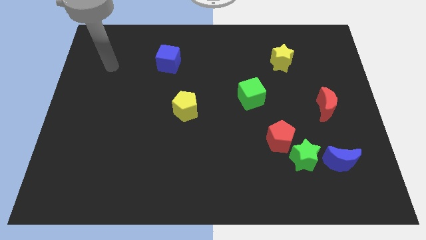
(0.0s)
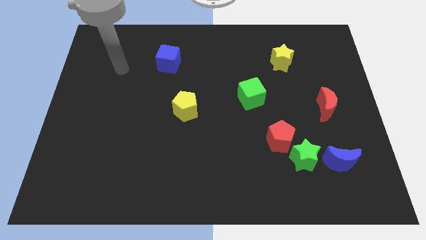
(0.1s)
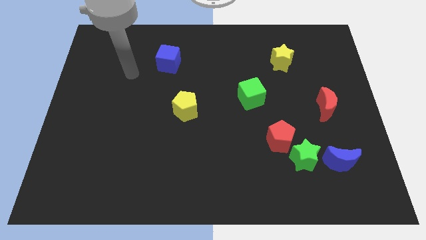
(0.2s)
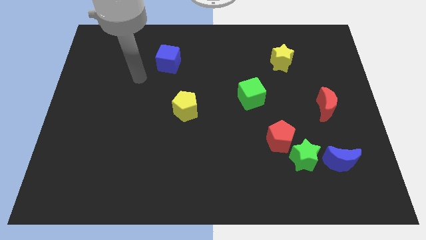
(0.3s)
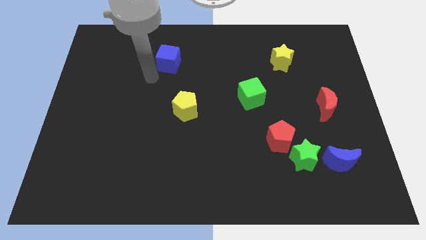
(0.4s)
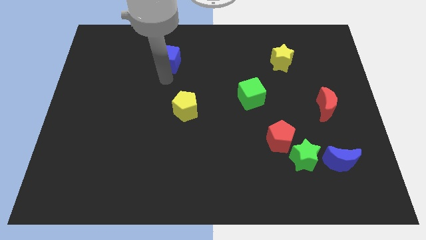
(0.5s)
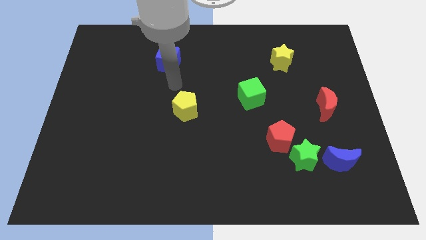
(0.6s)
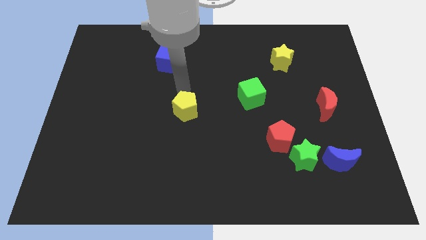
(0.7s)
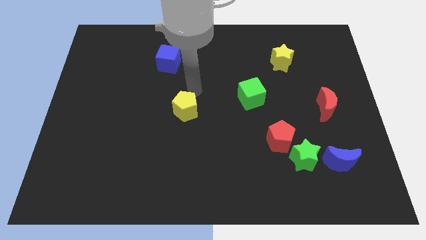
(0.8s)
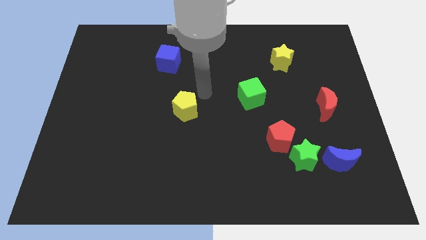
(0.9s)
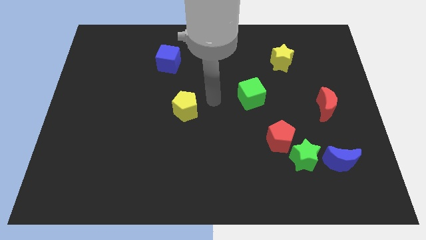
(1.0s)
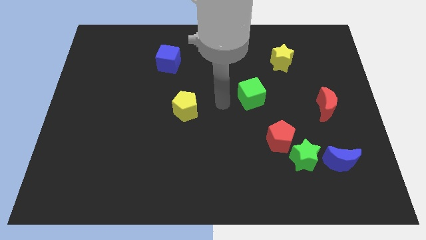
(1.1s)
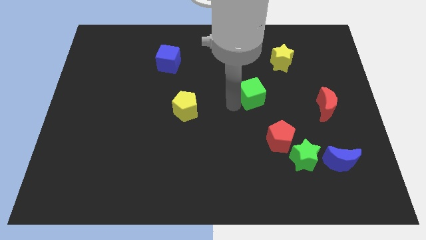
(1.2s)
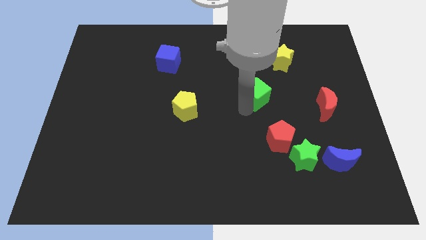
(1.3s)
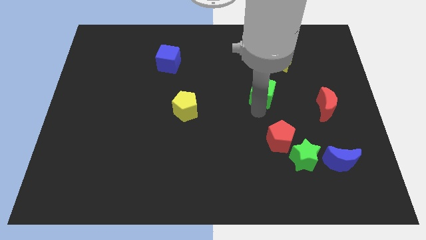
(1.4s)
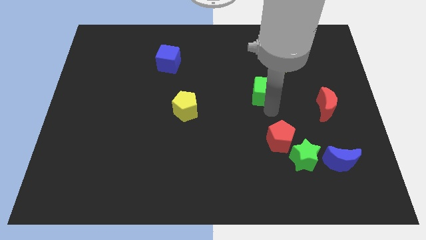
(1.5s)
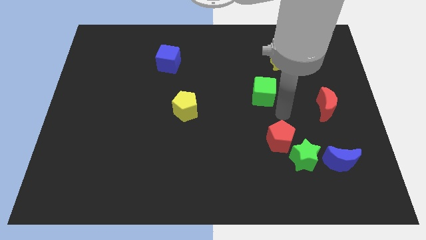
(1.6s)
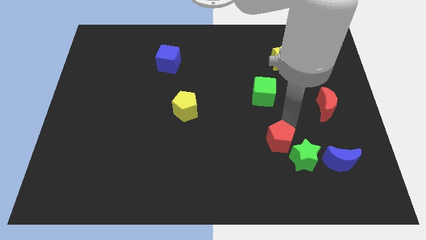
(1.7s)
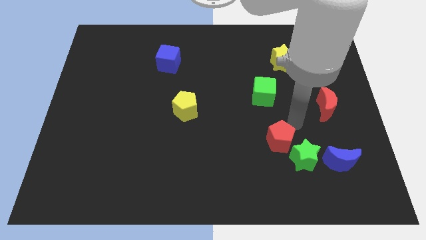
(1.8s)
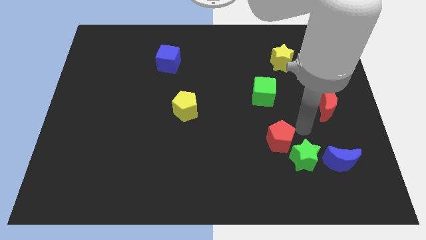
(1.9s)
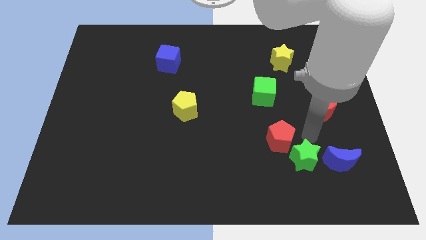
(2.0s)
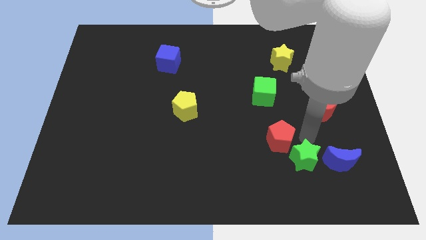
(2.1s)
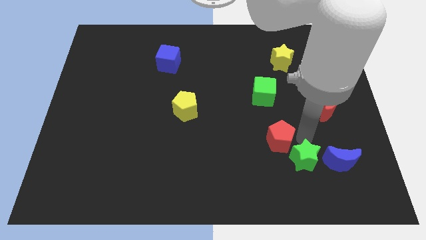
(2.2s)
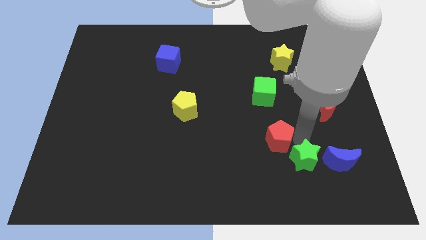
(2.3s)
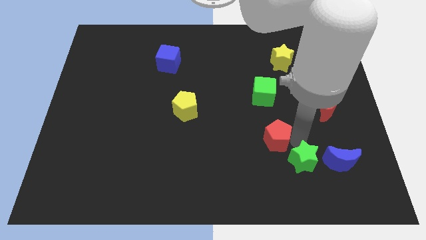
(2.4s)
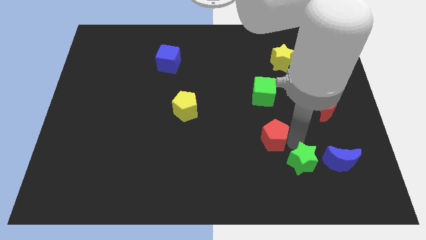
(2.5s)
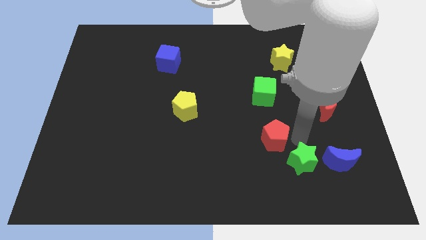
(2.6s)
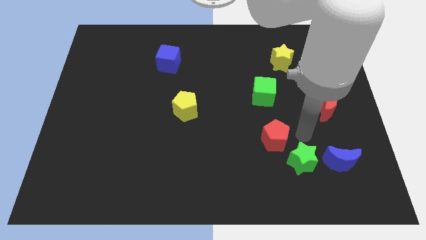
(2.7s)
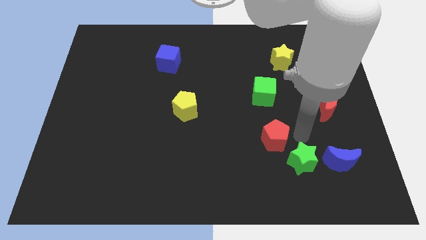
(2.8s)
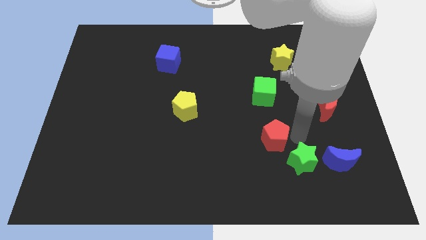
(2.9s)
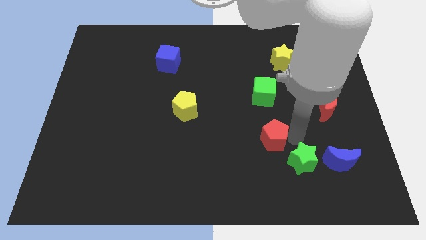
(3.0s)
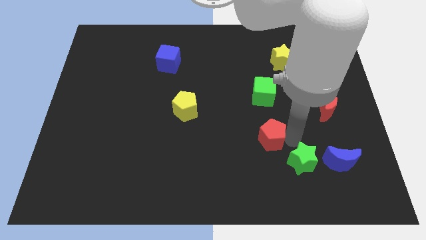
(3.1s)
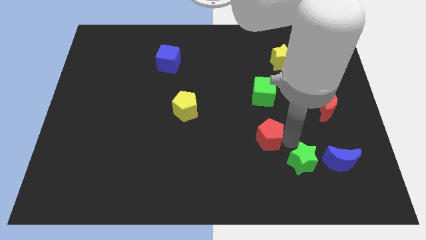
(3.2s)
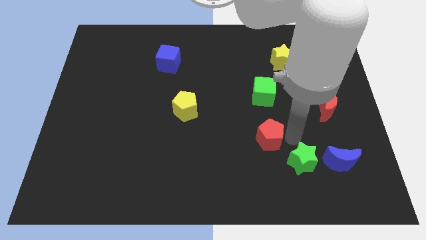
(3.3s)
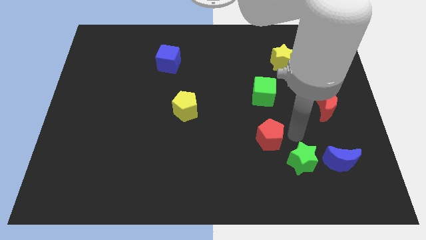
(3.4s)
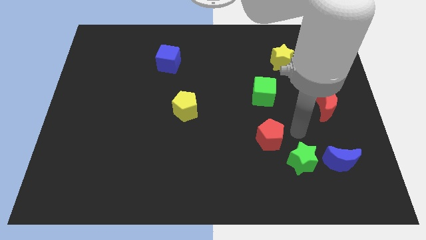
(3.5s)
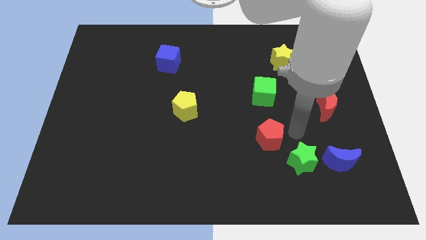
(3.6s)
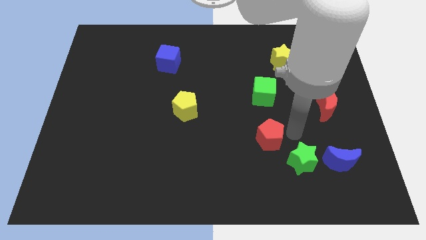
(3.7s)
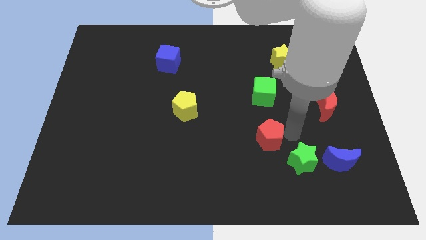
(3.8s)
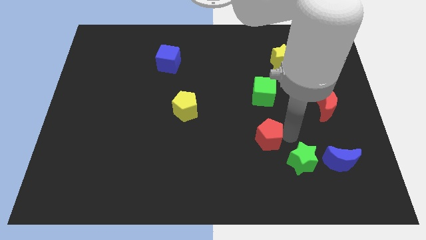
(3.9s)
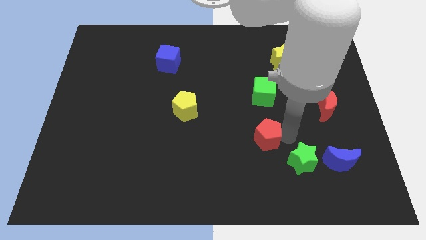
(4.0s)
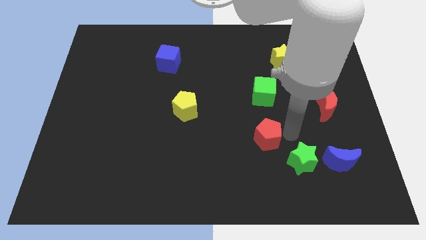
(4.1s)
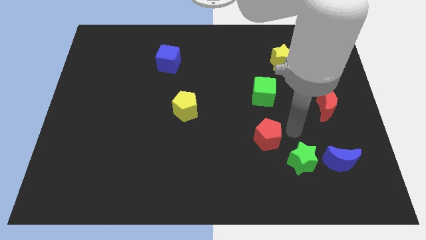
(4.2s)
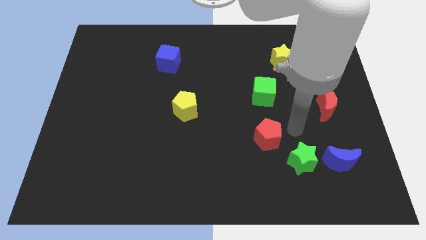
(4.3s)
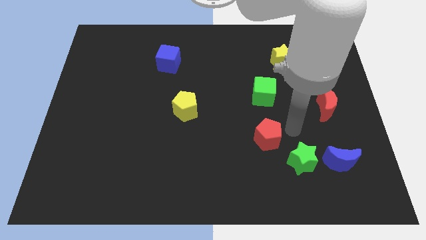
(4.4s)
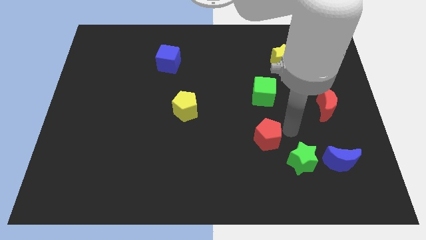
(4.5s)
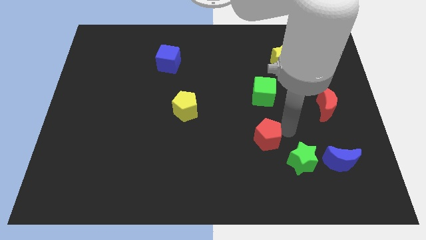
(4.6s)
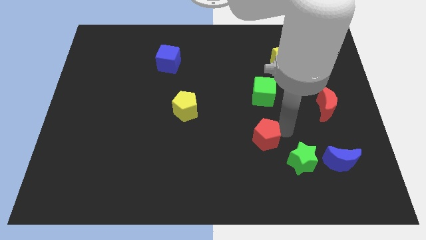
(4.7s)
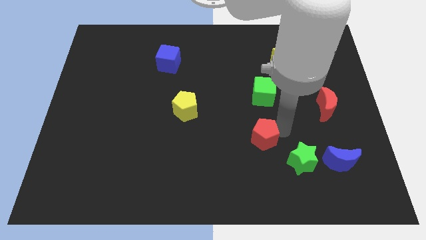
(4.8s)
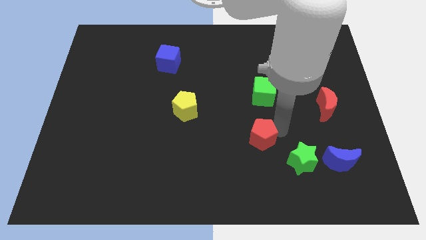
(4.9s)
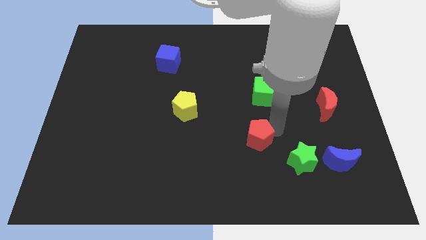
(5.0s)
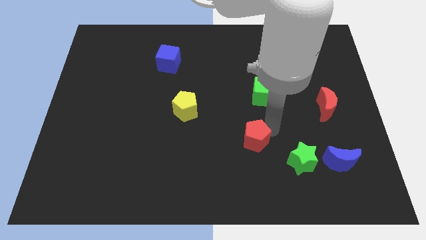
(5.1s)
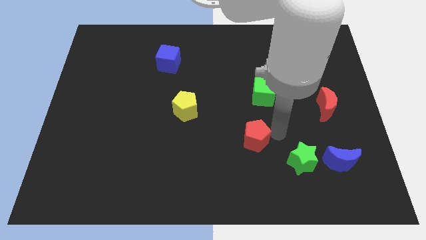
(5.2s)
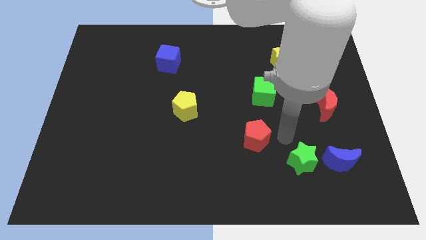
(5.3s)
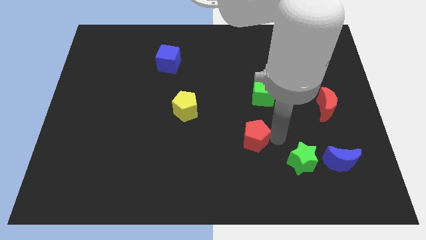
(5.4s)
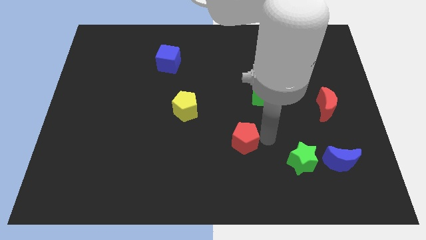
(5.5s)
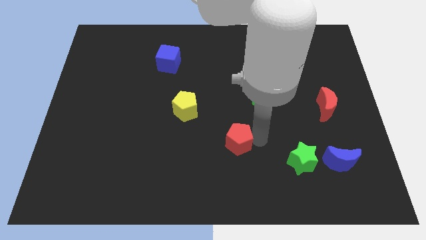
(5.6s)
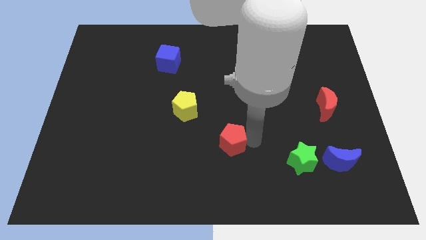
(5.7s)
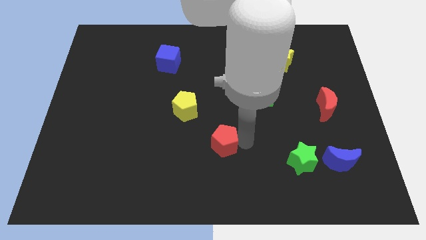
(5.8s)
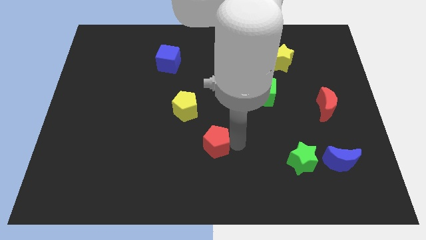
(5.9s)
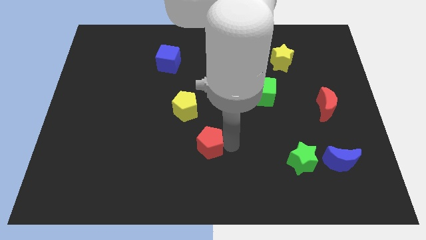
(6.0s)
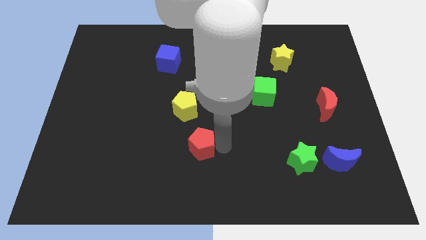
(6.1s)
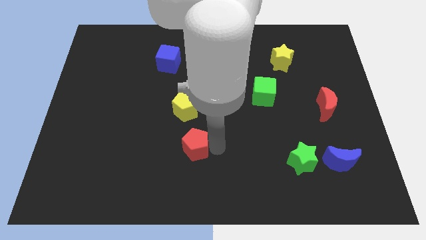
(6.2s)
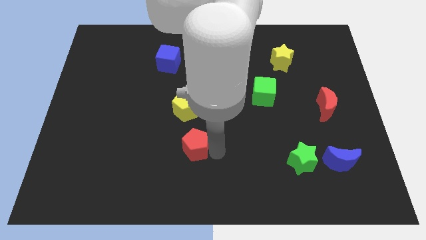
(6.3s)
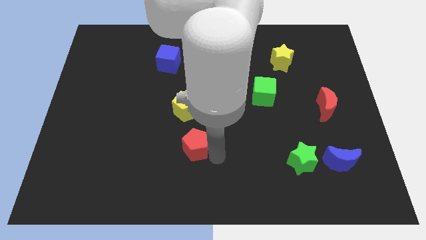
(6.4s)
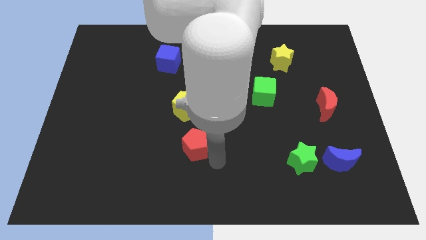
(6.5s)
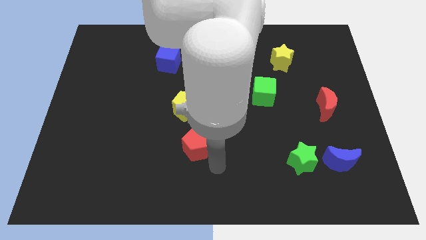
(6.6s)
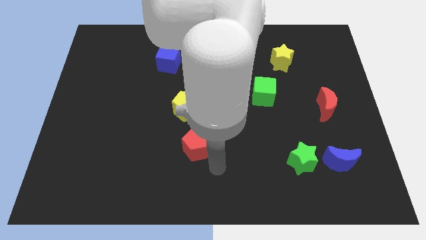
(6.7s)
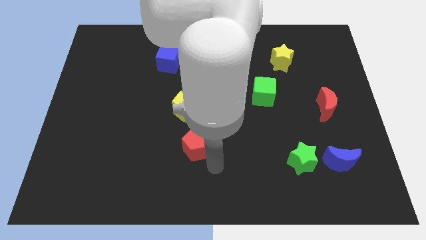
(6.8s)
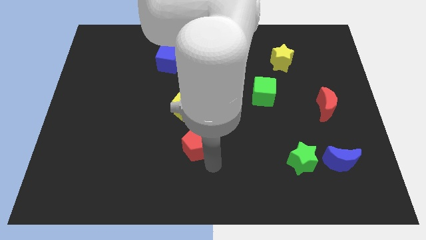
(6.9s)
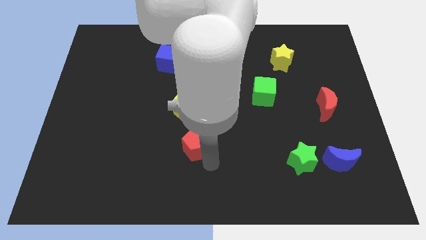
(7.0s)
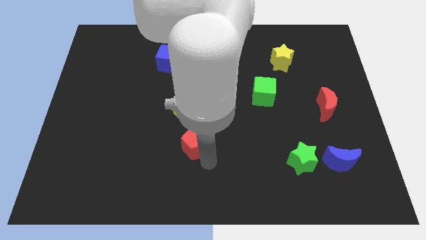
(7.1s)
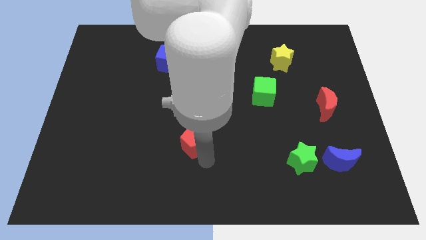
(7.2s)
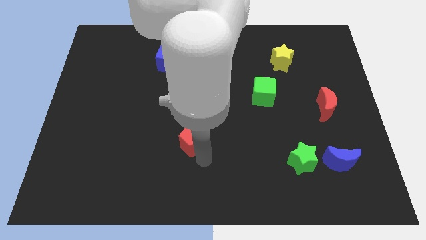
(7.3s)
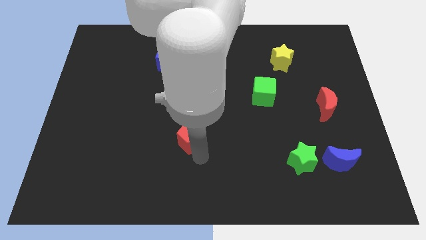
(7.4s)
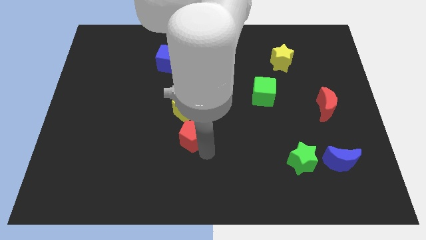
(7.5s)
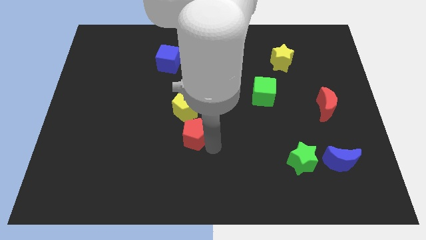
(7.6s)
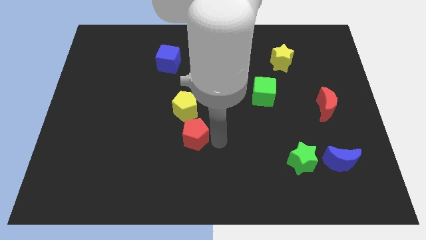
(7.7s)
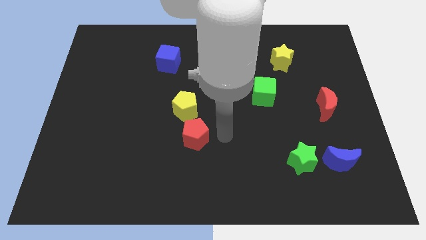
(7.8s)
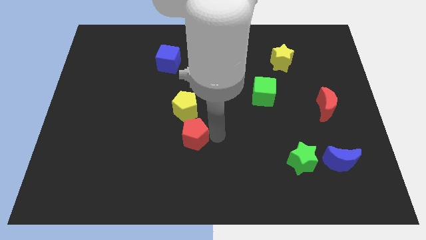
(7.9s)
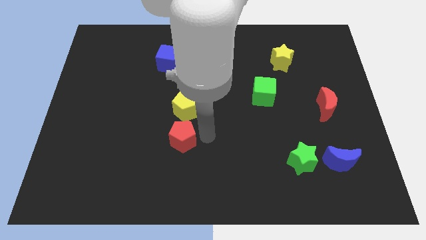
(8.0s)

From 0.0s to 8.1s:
move the red pentagon to the left
